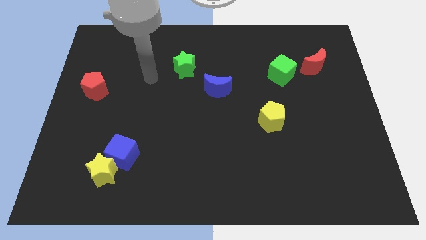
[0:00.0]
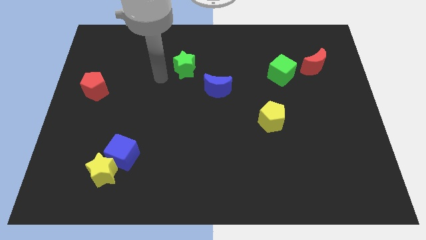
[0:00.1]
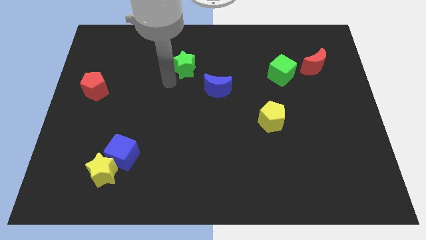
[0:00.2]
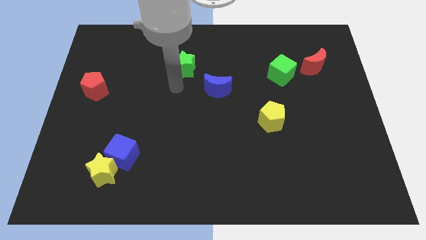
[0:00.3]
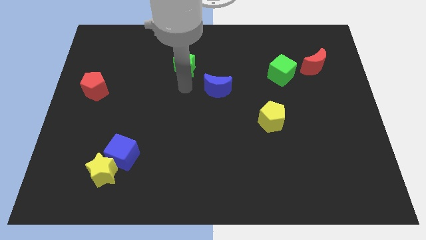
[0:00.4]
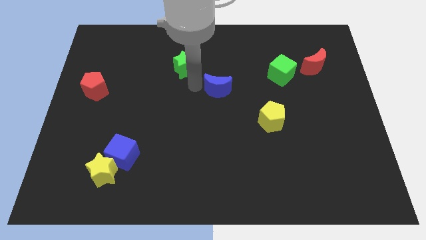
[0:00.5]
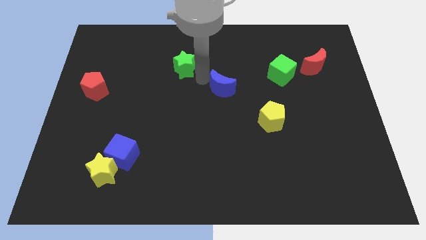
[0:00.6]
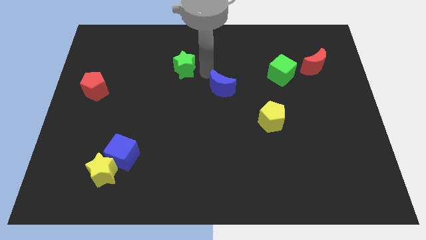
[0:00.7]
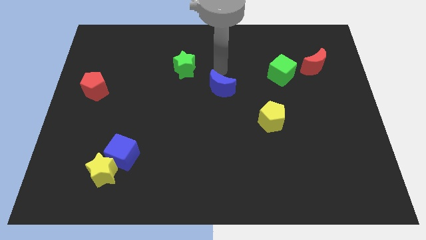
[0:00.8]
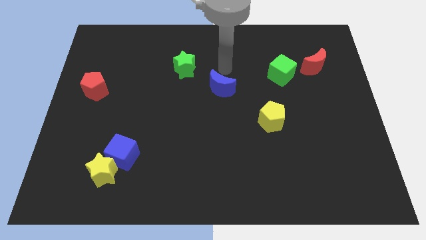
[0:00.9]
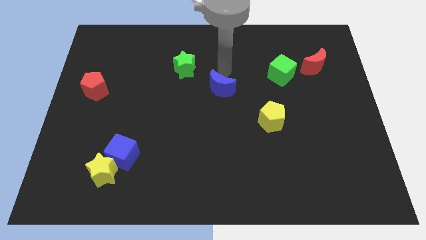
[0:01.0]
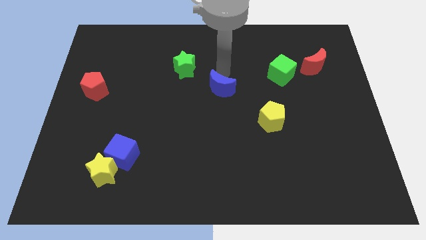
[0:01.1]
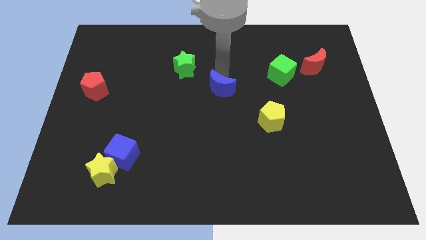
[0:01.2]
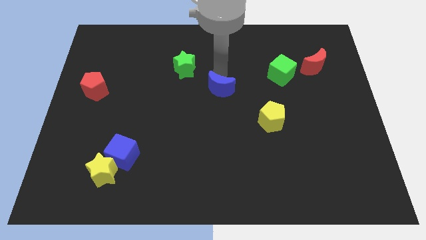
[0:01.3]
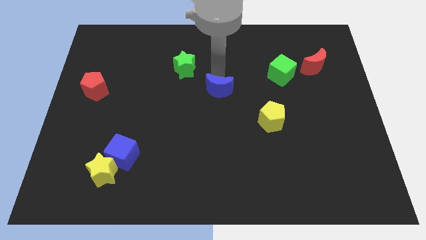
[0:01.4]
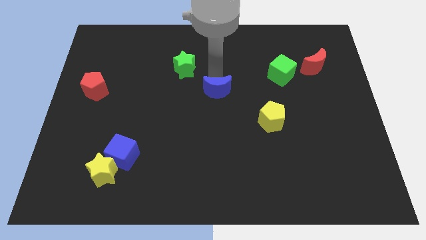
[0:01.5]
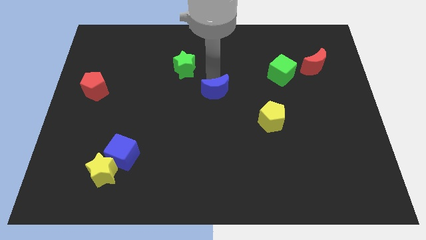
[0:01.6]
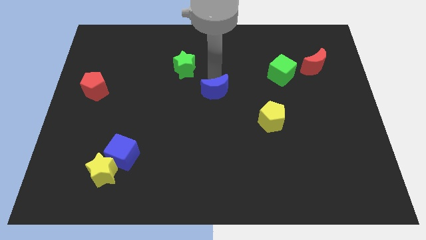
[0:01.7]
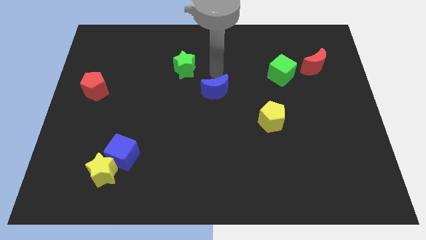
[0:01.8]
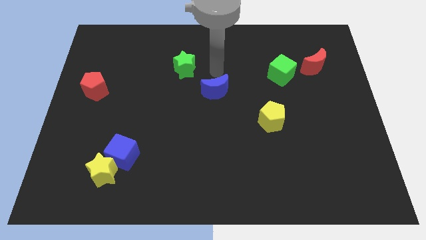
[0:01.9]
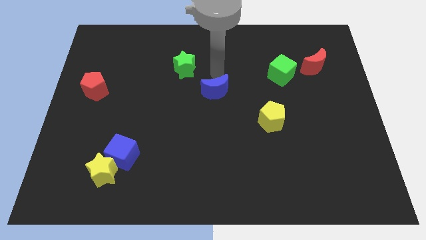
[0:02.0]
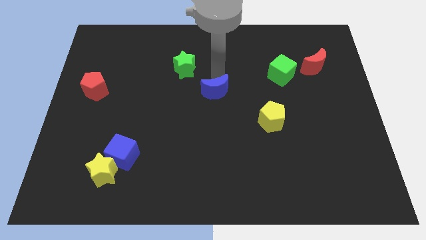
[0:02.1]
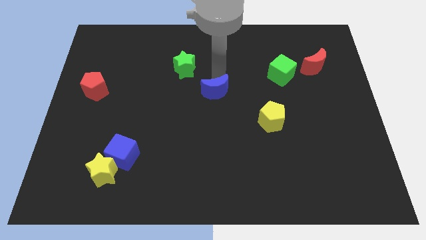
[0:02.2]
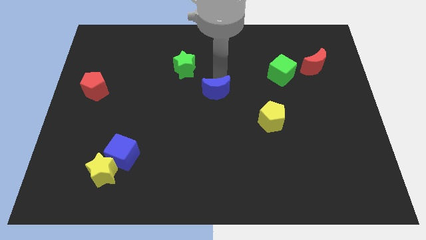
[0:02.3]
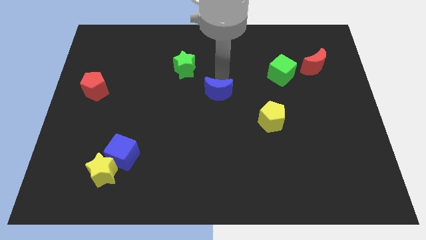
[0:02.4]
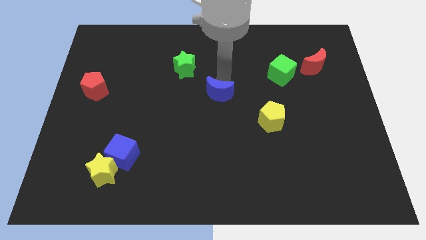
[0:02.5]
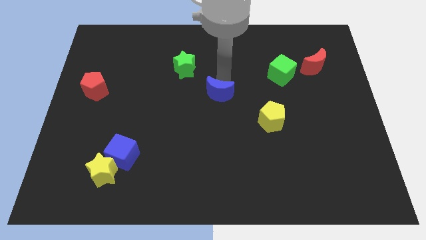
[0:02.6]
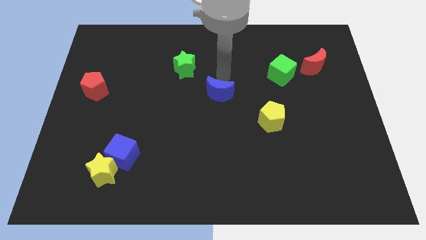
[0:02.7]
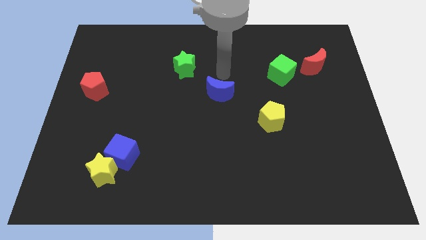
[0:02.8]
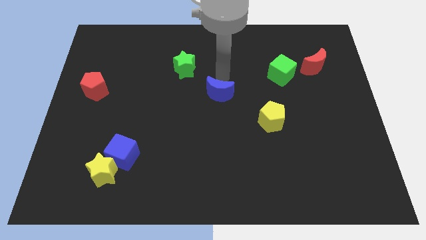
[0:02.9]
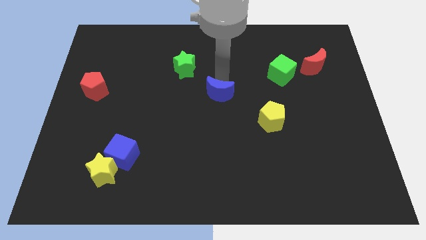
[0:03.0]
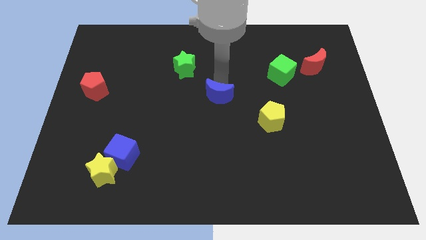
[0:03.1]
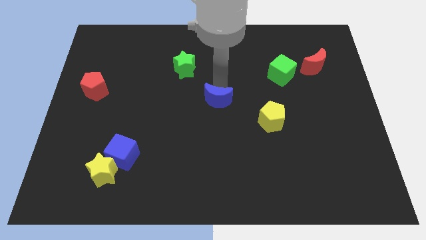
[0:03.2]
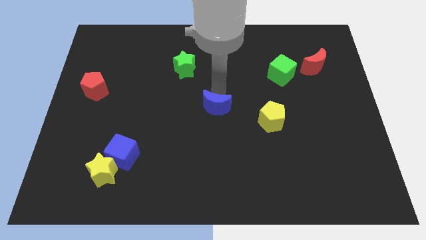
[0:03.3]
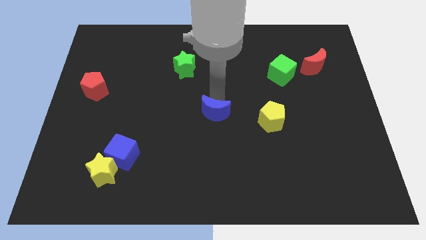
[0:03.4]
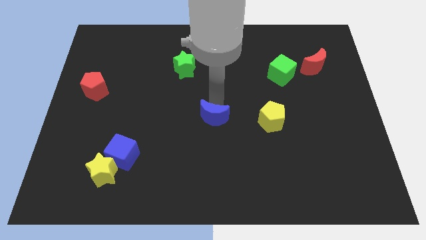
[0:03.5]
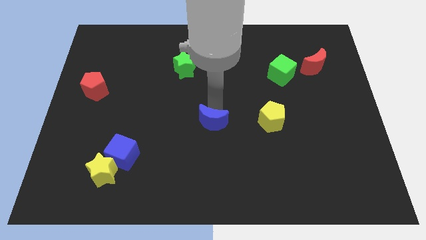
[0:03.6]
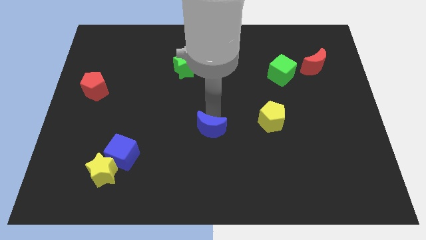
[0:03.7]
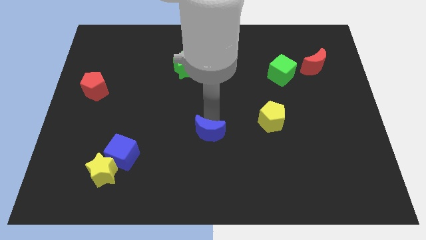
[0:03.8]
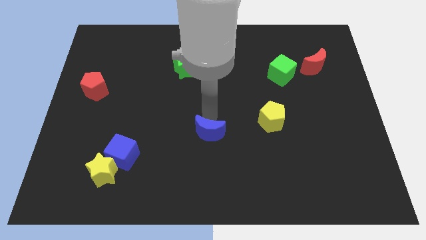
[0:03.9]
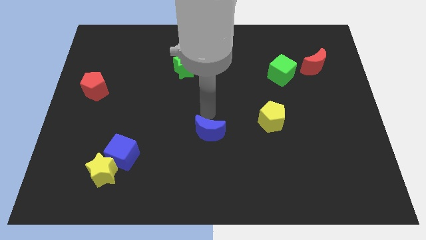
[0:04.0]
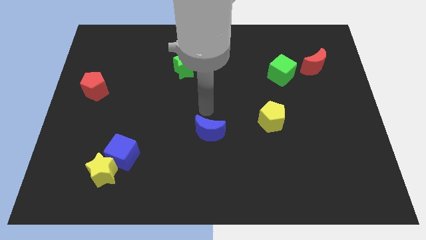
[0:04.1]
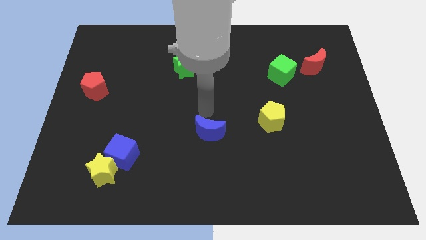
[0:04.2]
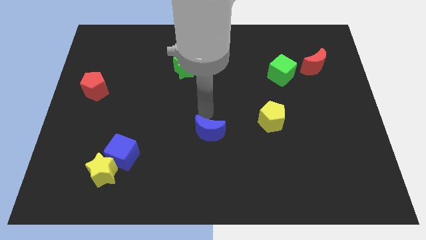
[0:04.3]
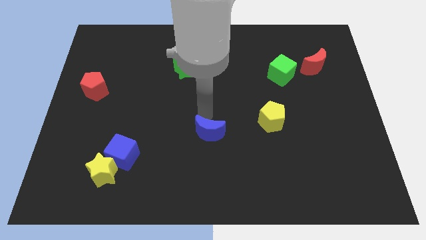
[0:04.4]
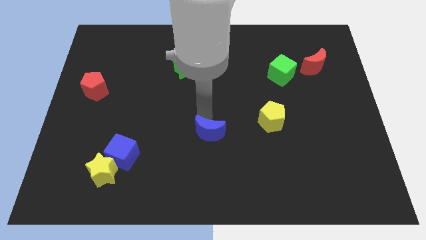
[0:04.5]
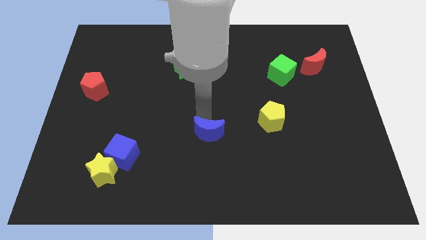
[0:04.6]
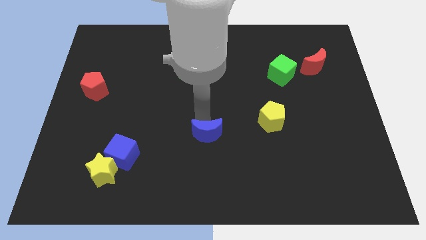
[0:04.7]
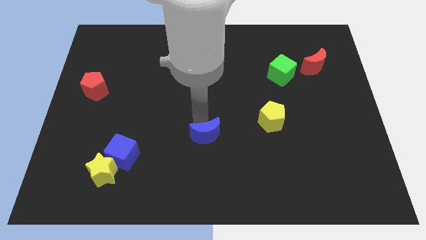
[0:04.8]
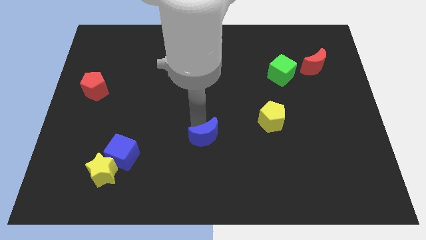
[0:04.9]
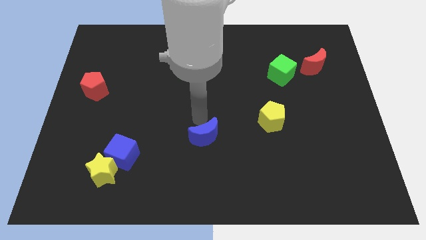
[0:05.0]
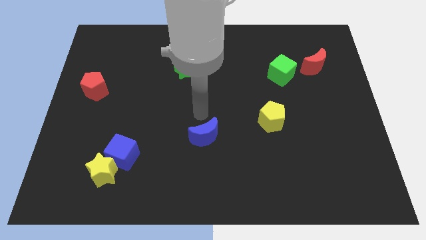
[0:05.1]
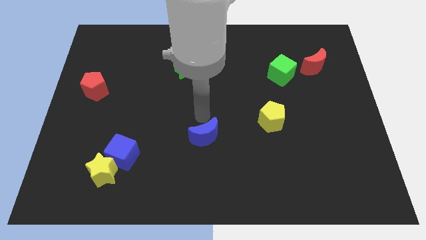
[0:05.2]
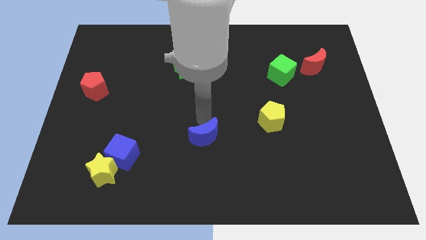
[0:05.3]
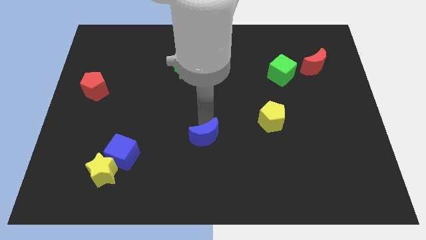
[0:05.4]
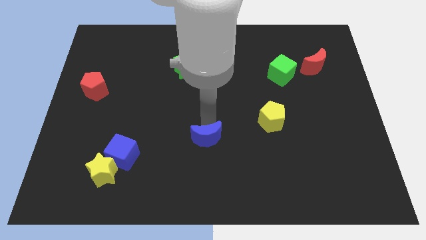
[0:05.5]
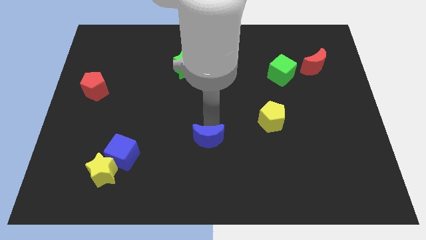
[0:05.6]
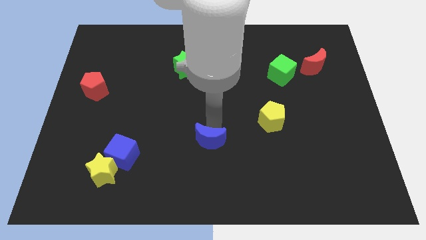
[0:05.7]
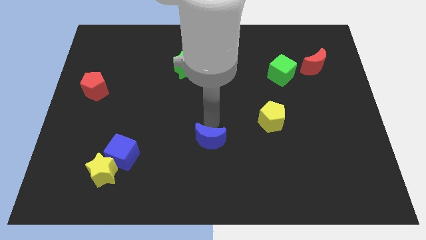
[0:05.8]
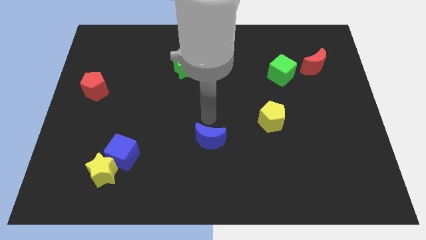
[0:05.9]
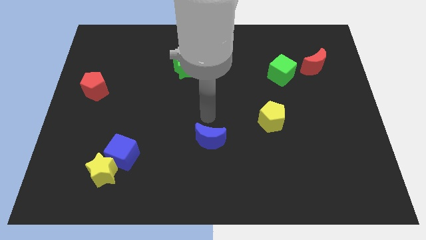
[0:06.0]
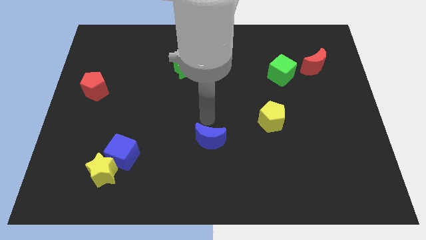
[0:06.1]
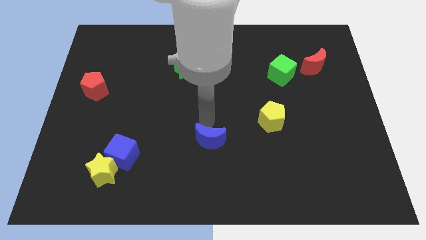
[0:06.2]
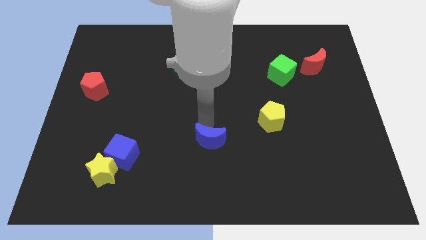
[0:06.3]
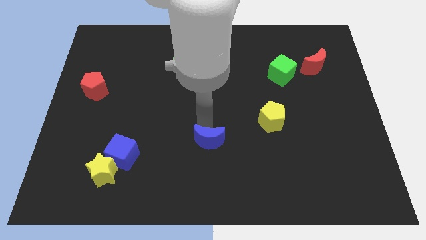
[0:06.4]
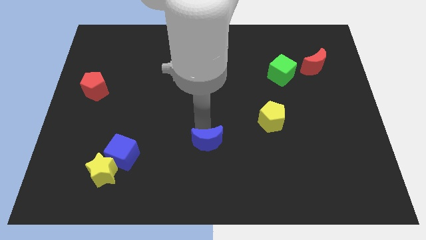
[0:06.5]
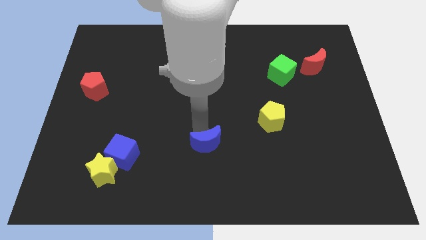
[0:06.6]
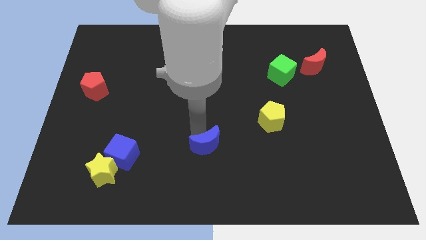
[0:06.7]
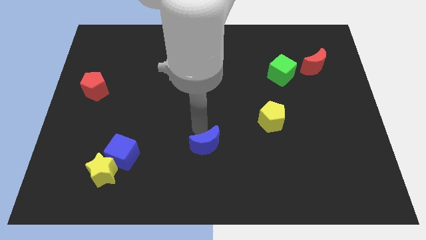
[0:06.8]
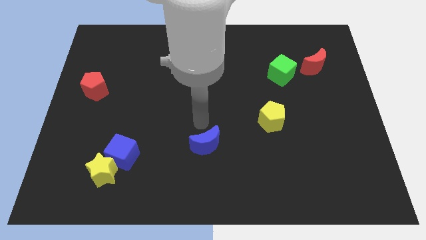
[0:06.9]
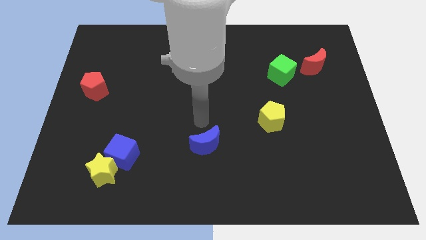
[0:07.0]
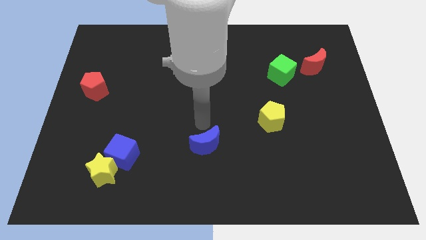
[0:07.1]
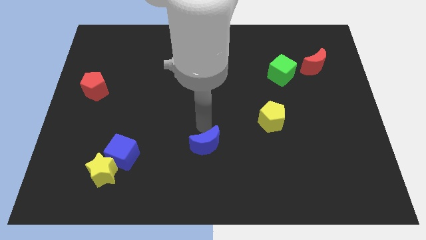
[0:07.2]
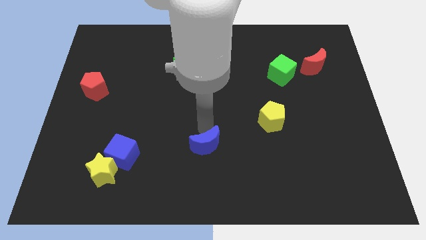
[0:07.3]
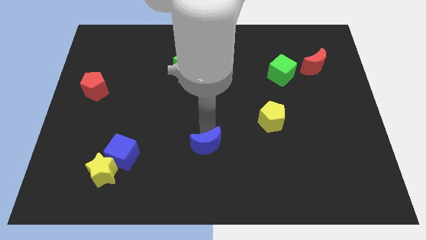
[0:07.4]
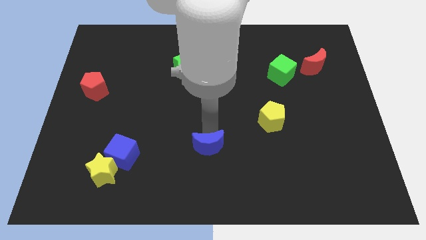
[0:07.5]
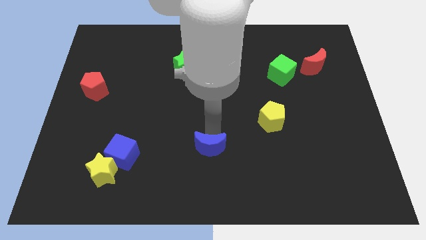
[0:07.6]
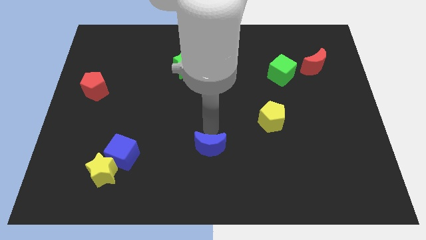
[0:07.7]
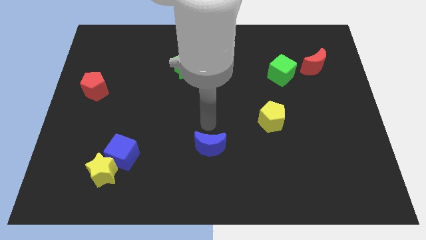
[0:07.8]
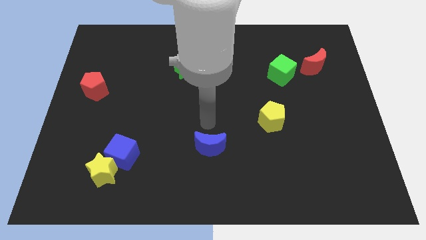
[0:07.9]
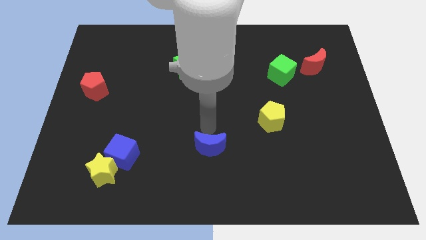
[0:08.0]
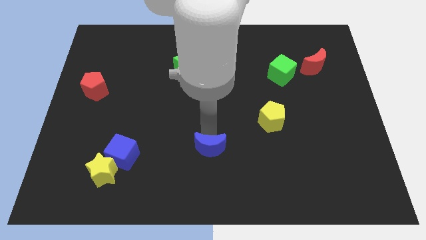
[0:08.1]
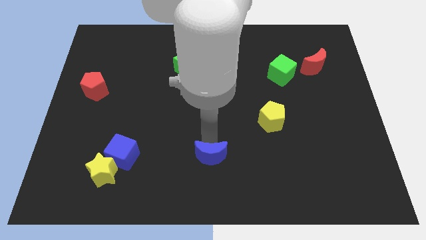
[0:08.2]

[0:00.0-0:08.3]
push the blue moon to the bottom
